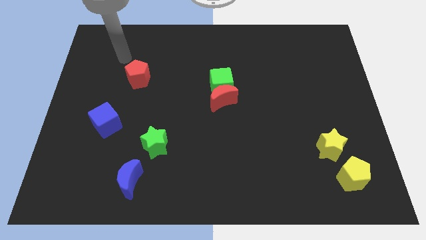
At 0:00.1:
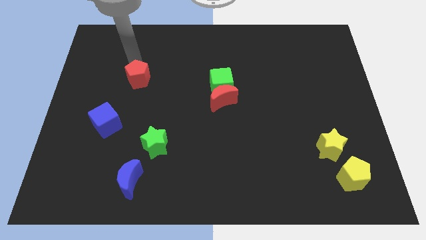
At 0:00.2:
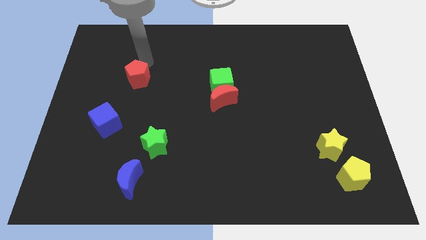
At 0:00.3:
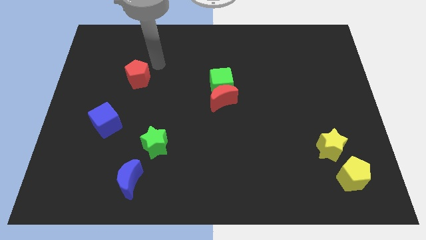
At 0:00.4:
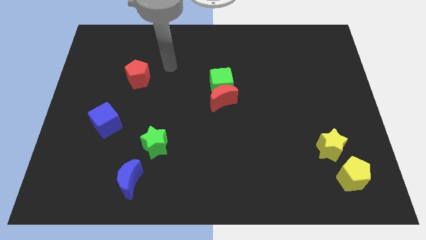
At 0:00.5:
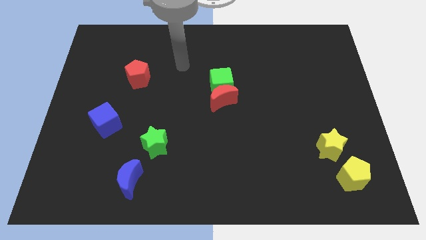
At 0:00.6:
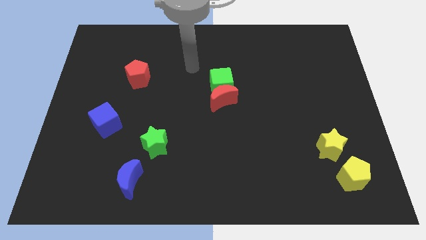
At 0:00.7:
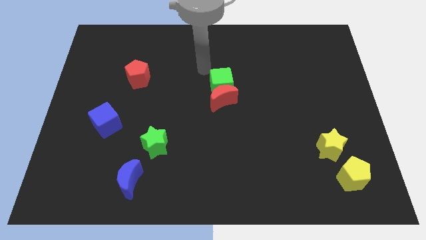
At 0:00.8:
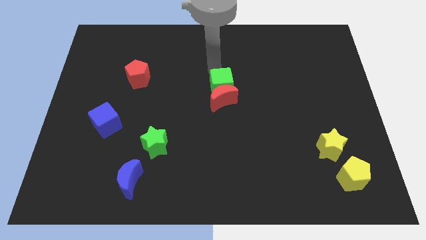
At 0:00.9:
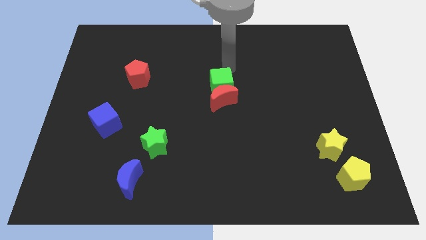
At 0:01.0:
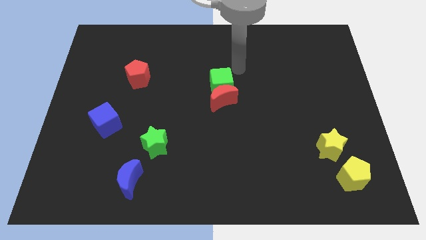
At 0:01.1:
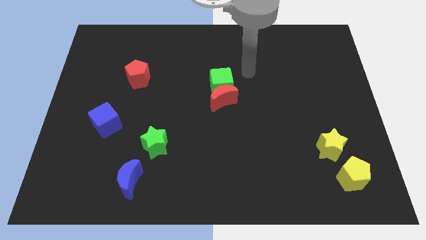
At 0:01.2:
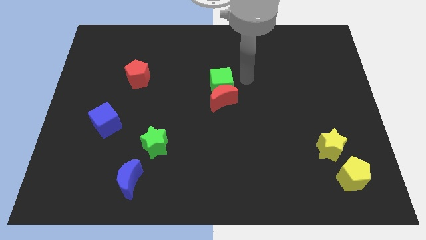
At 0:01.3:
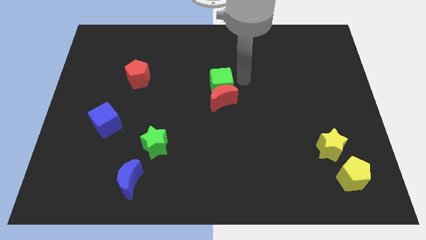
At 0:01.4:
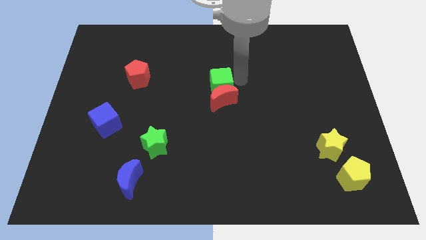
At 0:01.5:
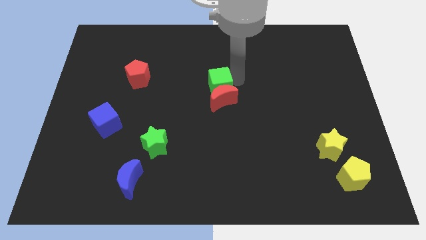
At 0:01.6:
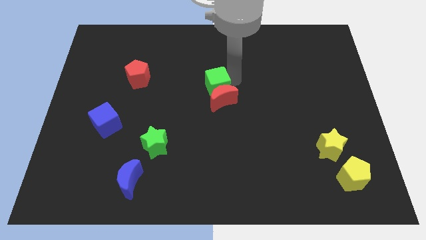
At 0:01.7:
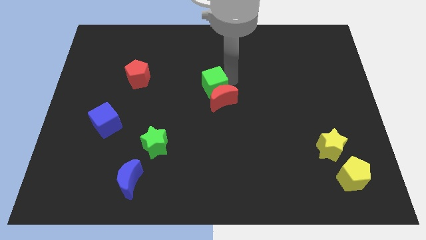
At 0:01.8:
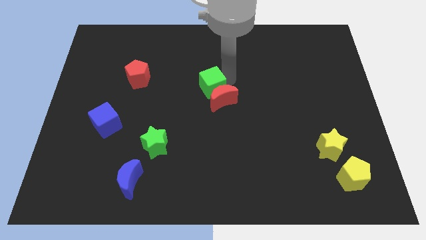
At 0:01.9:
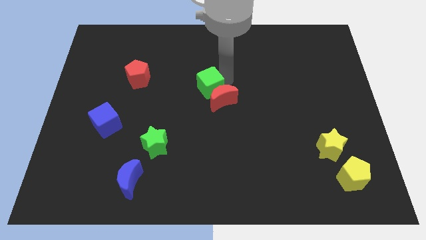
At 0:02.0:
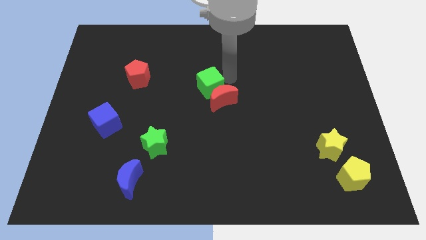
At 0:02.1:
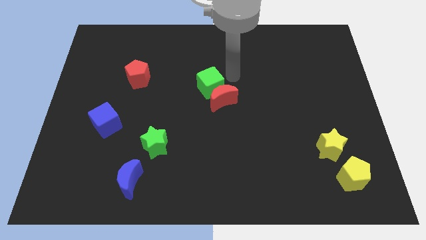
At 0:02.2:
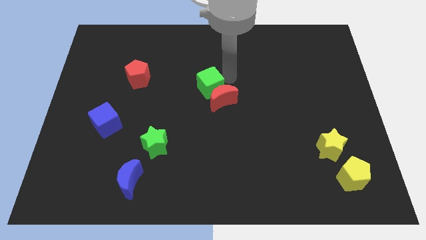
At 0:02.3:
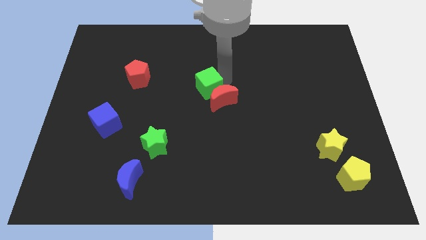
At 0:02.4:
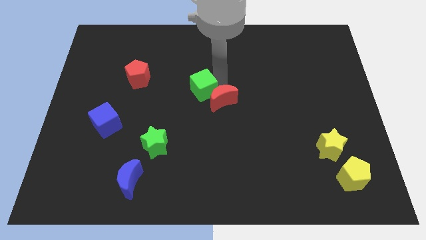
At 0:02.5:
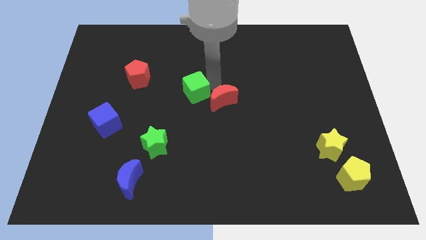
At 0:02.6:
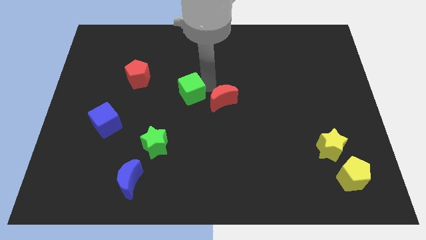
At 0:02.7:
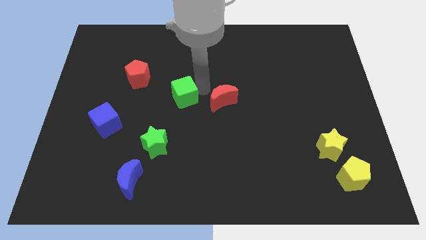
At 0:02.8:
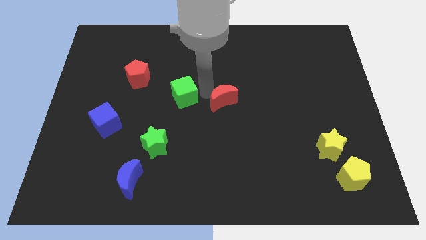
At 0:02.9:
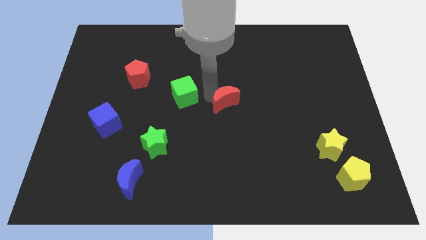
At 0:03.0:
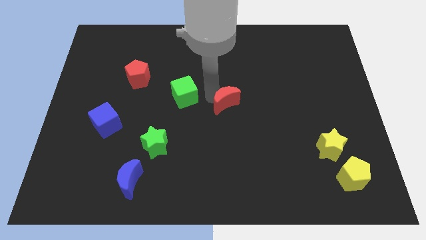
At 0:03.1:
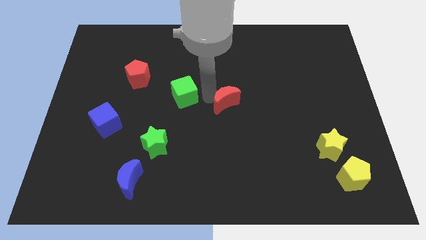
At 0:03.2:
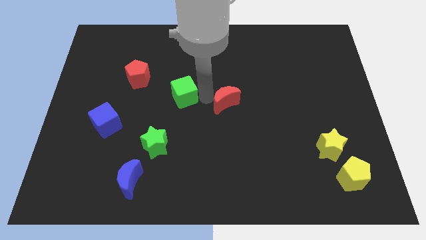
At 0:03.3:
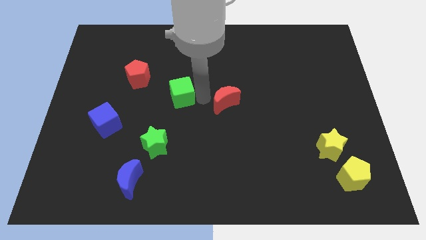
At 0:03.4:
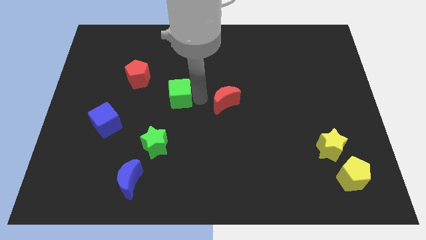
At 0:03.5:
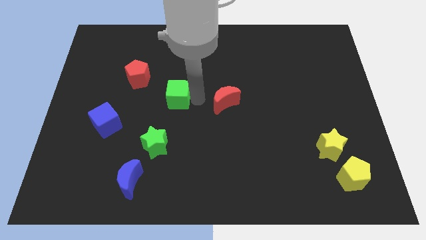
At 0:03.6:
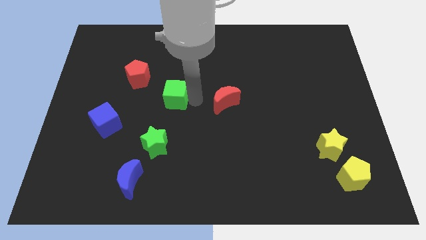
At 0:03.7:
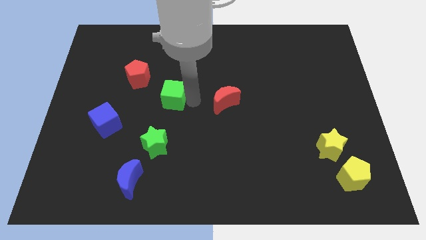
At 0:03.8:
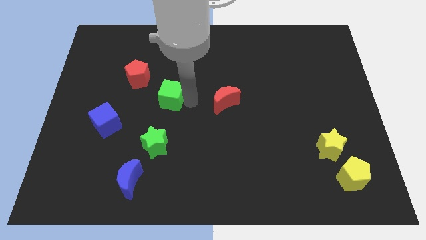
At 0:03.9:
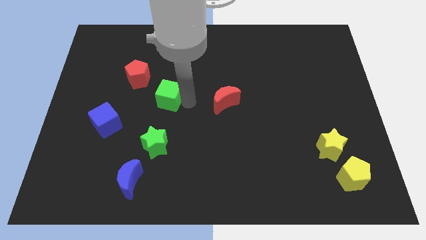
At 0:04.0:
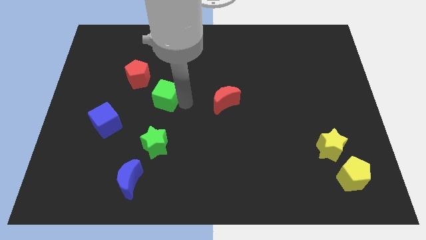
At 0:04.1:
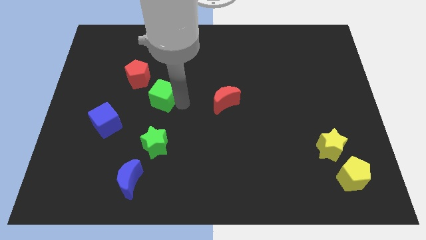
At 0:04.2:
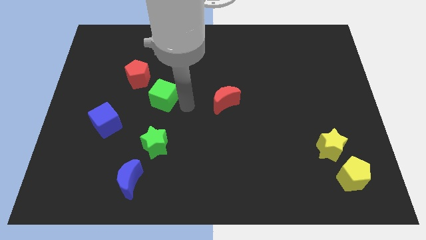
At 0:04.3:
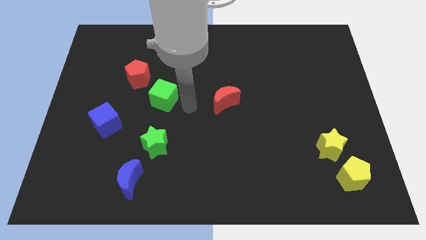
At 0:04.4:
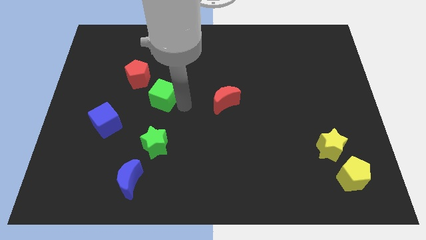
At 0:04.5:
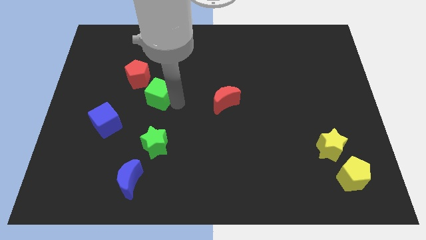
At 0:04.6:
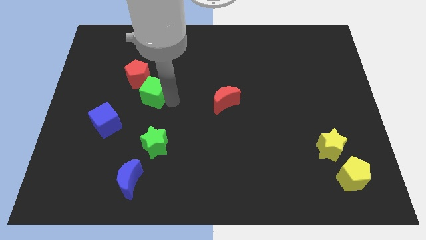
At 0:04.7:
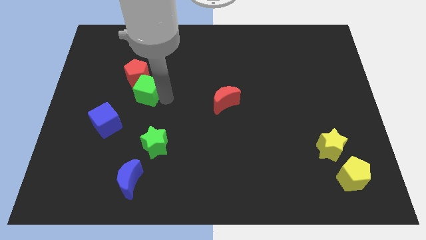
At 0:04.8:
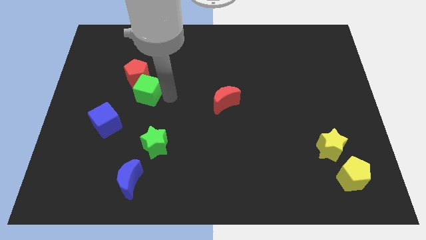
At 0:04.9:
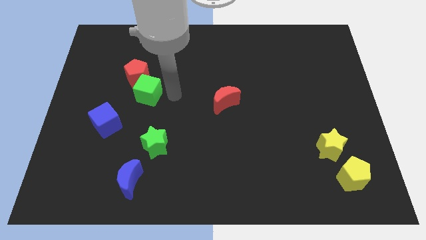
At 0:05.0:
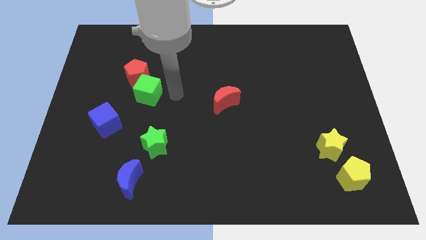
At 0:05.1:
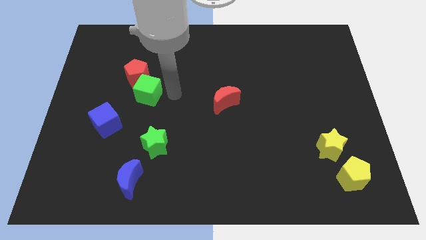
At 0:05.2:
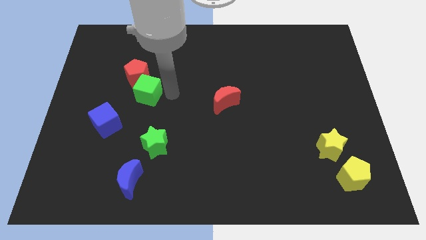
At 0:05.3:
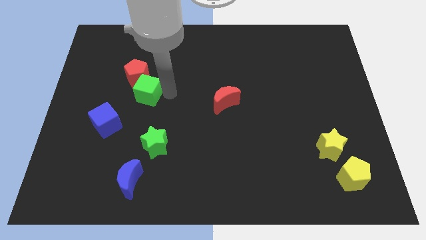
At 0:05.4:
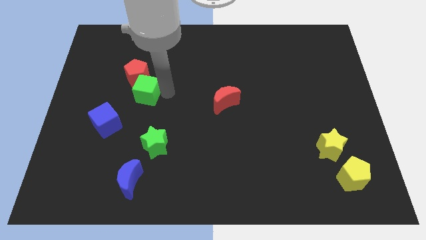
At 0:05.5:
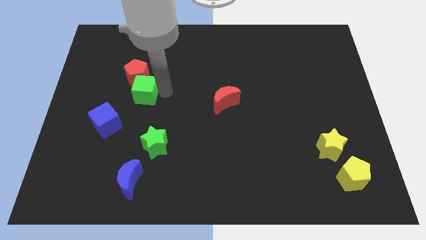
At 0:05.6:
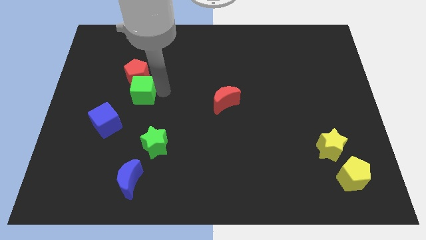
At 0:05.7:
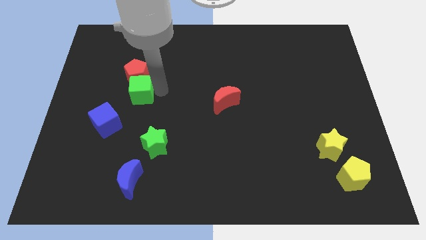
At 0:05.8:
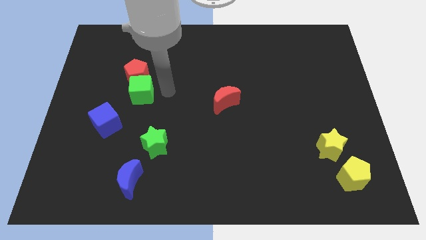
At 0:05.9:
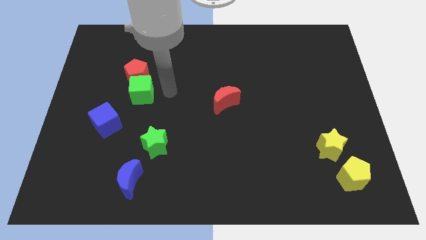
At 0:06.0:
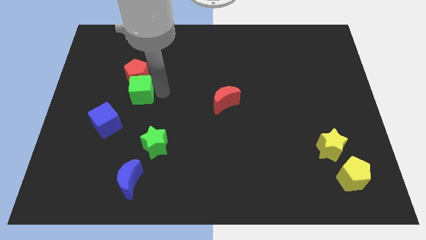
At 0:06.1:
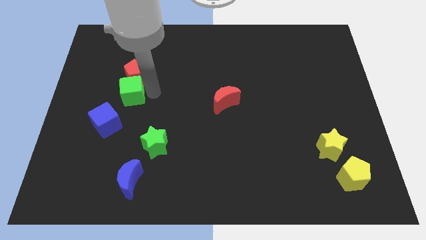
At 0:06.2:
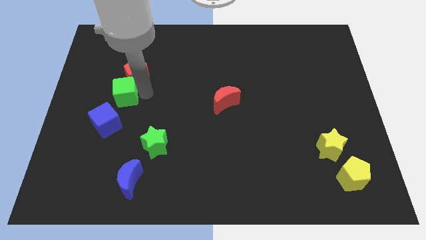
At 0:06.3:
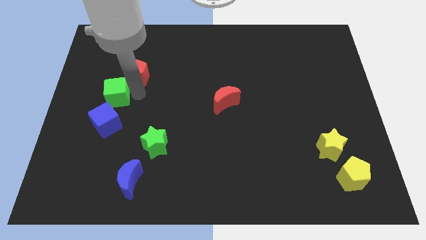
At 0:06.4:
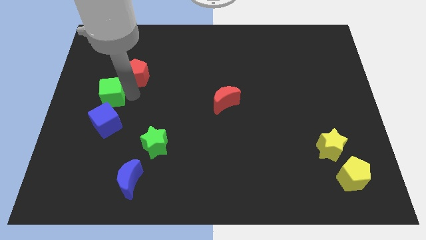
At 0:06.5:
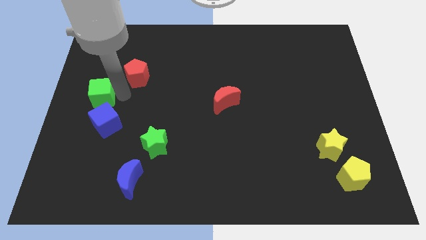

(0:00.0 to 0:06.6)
push the green cube to the left side of the board

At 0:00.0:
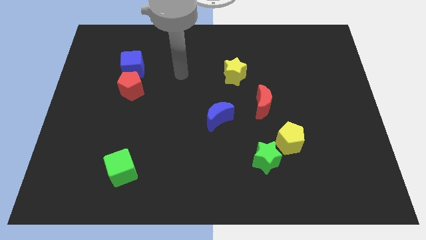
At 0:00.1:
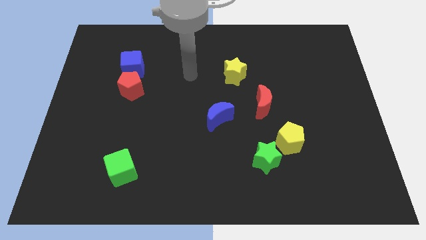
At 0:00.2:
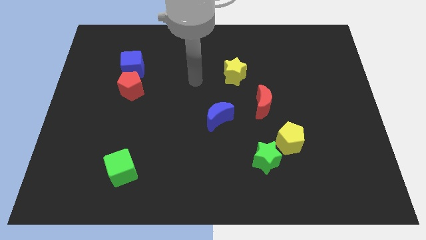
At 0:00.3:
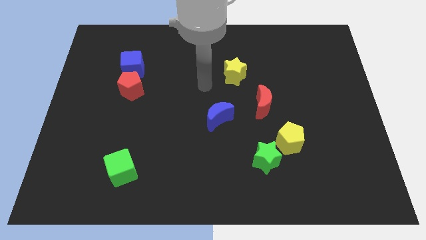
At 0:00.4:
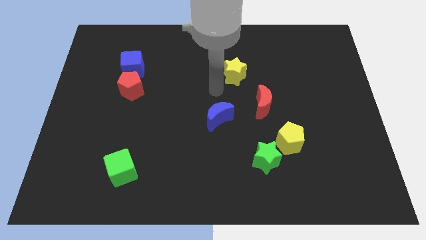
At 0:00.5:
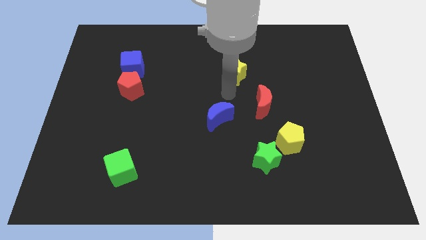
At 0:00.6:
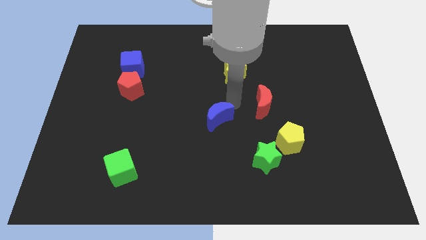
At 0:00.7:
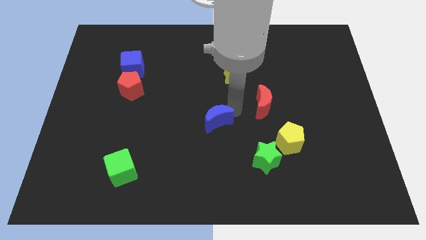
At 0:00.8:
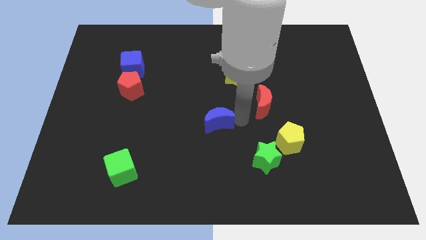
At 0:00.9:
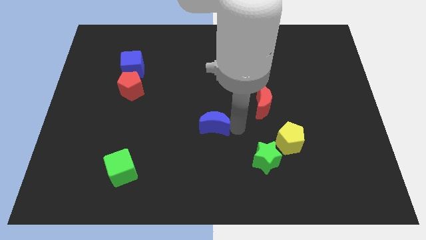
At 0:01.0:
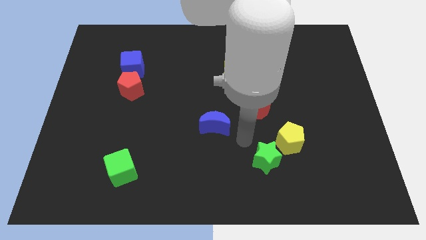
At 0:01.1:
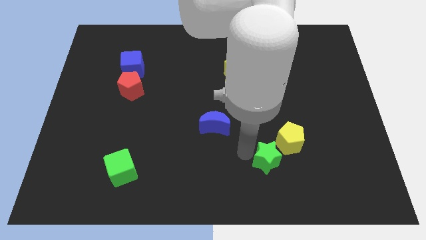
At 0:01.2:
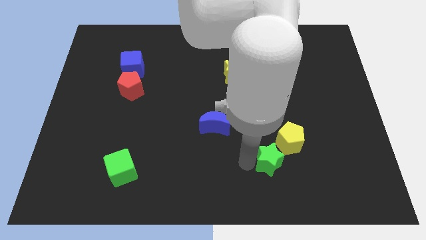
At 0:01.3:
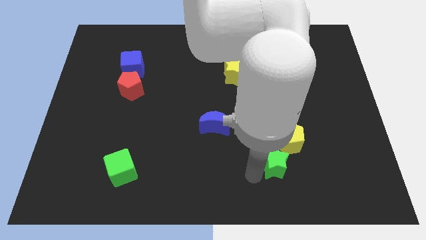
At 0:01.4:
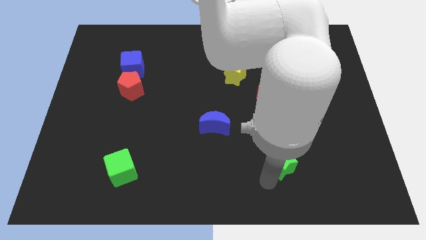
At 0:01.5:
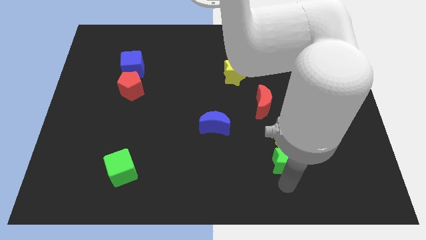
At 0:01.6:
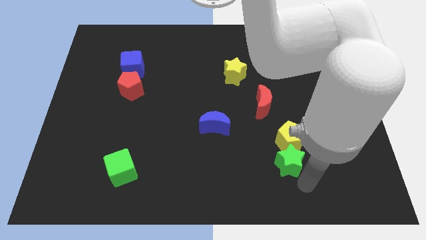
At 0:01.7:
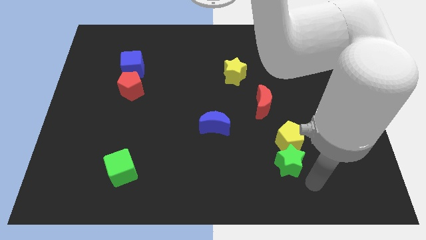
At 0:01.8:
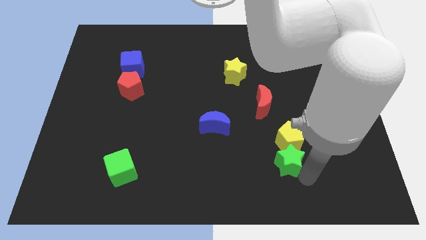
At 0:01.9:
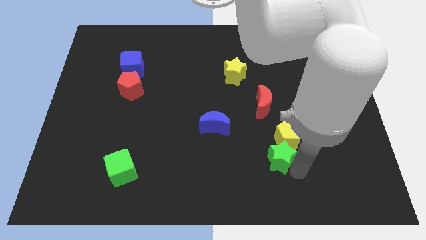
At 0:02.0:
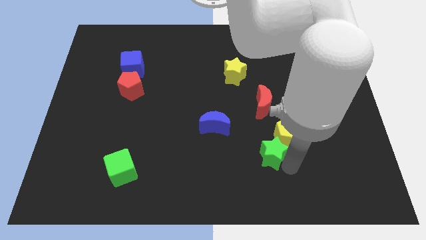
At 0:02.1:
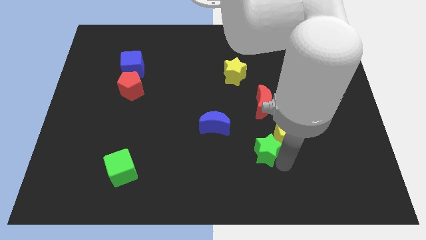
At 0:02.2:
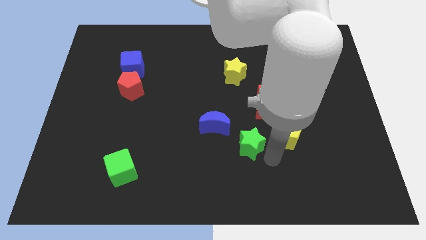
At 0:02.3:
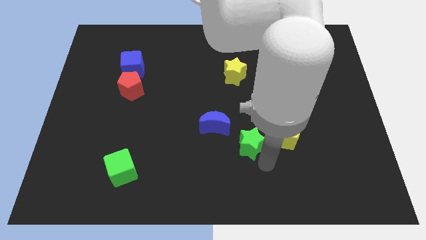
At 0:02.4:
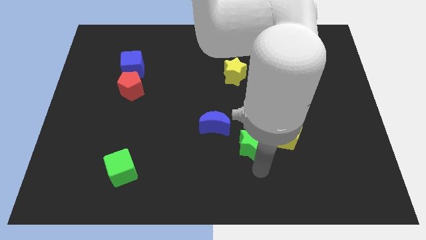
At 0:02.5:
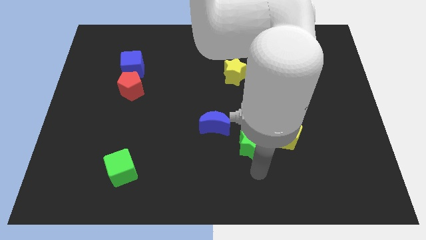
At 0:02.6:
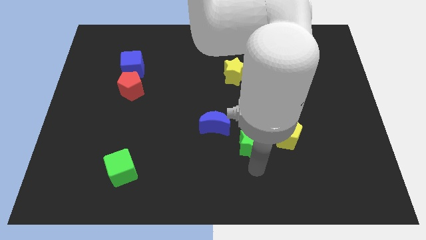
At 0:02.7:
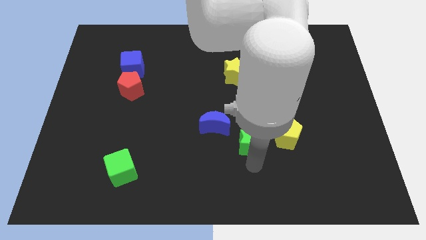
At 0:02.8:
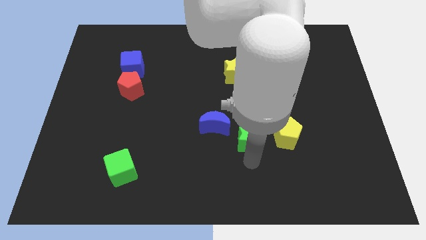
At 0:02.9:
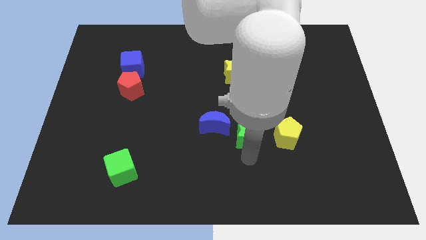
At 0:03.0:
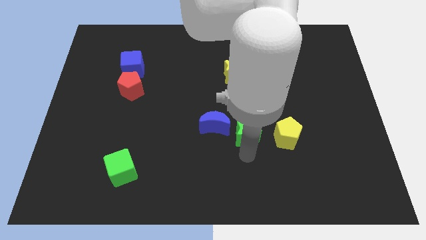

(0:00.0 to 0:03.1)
slide the green star to the middle of the board
